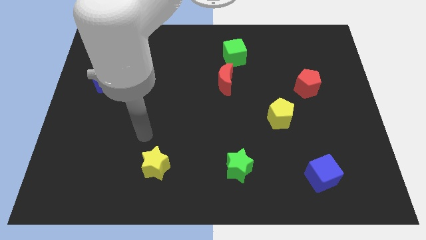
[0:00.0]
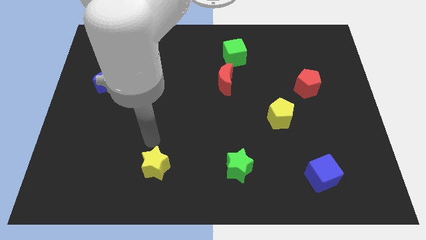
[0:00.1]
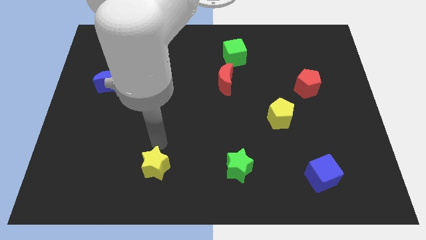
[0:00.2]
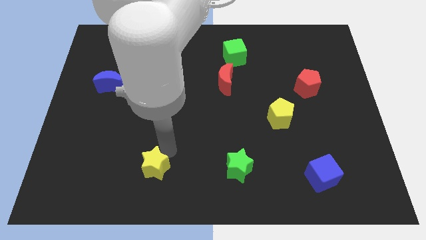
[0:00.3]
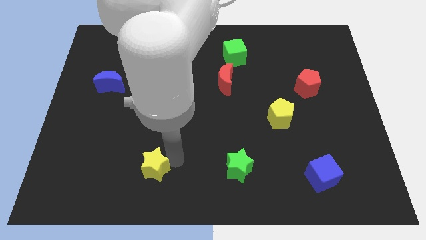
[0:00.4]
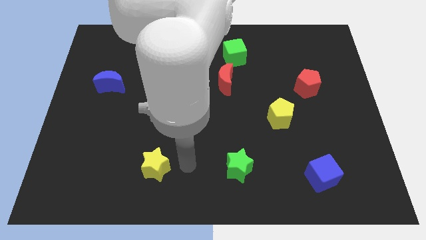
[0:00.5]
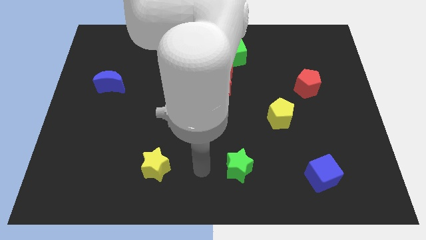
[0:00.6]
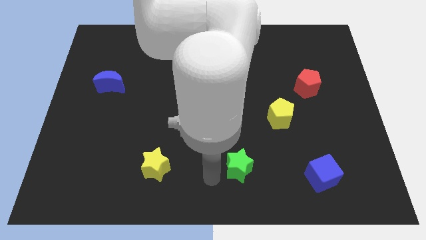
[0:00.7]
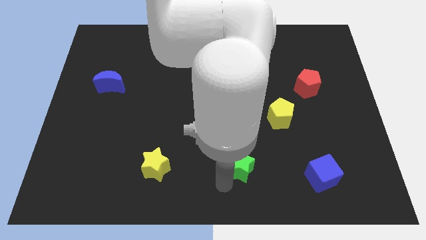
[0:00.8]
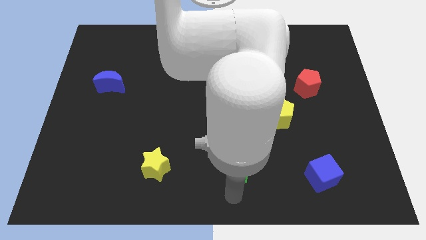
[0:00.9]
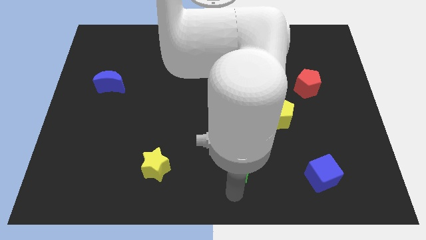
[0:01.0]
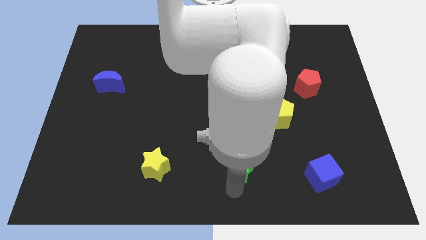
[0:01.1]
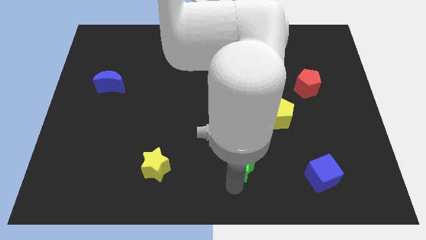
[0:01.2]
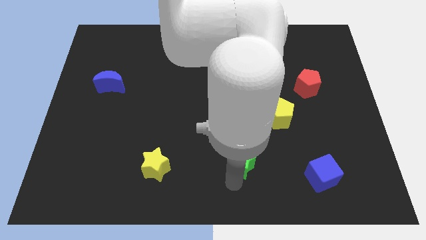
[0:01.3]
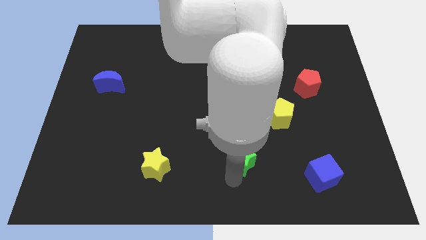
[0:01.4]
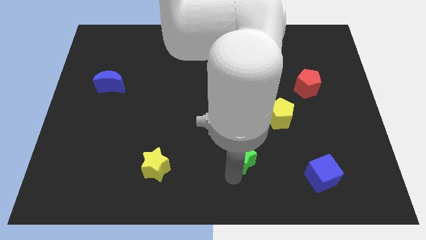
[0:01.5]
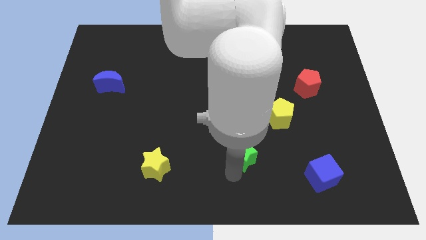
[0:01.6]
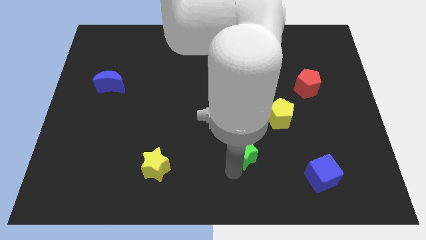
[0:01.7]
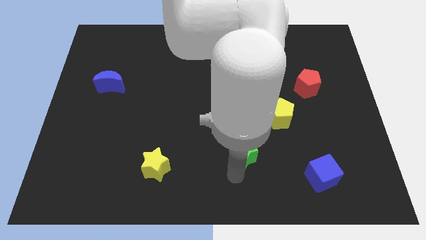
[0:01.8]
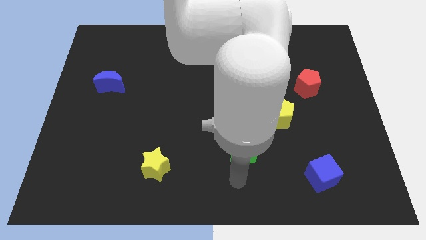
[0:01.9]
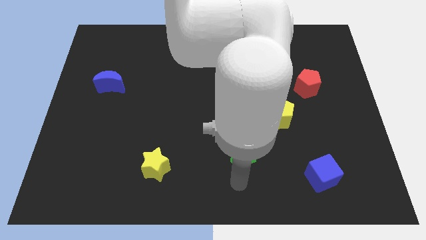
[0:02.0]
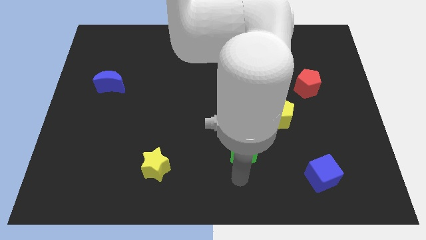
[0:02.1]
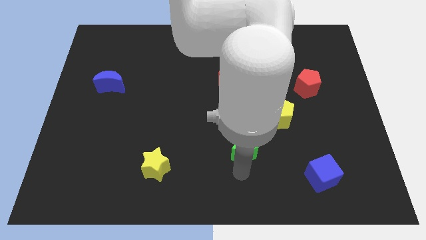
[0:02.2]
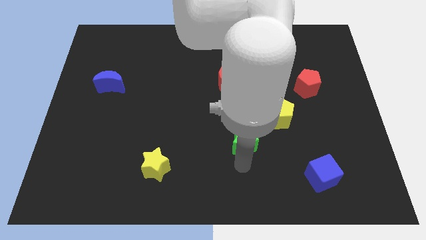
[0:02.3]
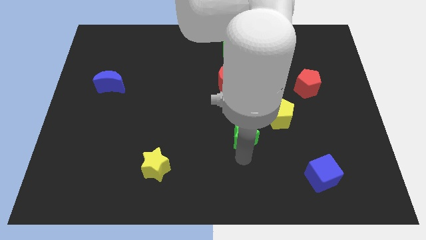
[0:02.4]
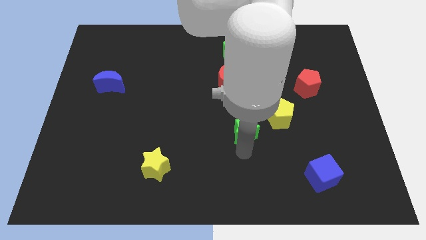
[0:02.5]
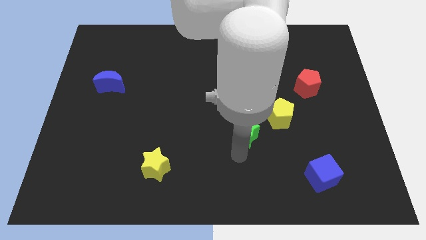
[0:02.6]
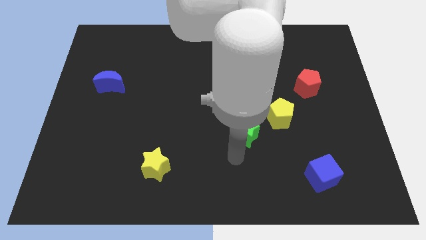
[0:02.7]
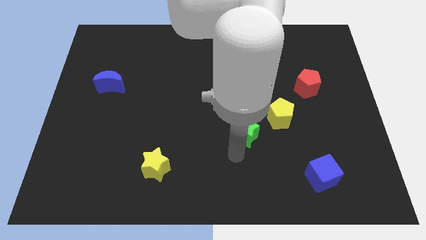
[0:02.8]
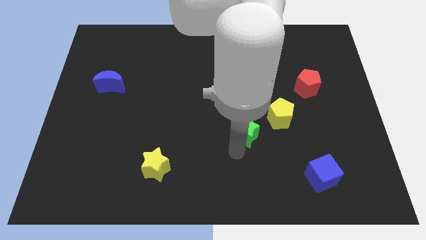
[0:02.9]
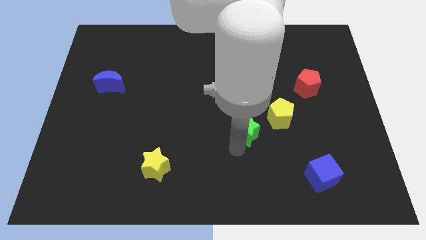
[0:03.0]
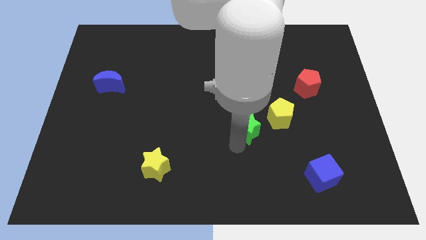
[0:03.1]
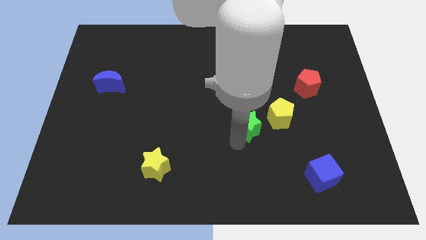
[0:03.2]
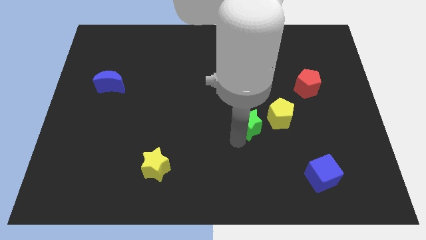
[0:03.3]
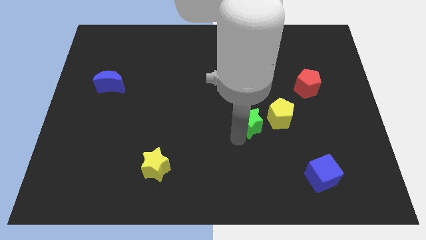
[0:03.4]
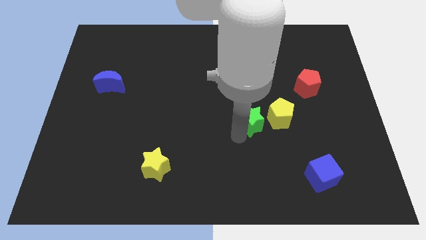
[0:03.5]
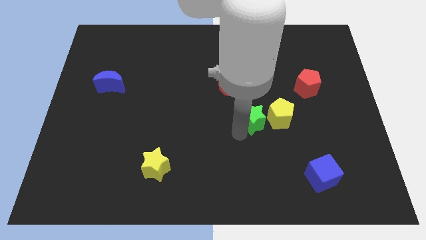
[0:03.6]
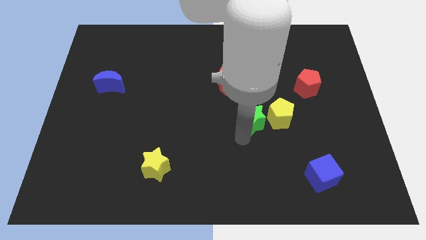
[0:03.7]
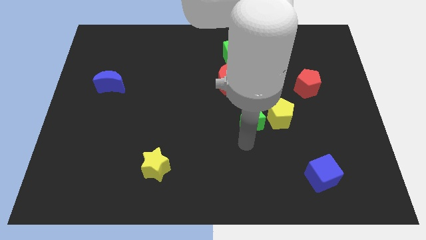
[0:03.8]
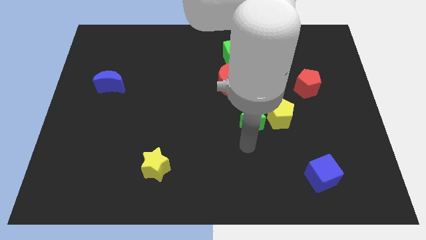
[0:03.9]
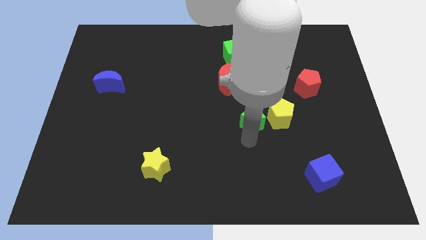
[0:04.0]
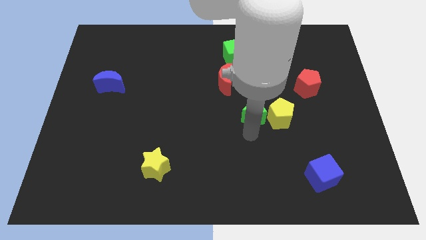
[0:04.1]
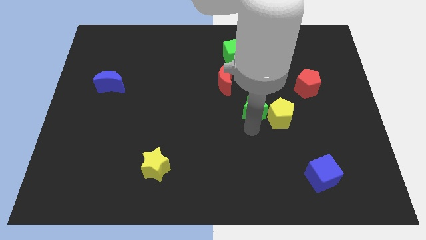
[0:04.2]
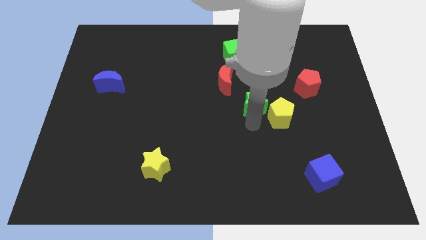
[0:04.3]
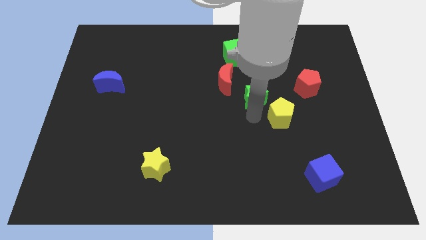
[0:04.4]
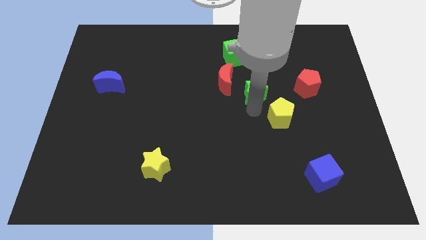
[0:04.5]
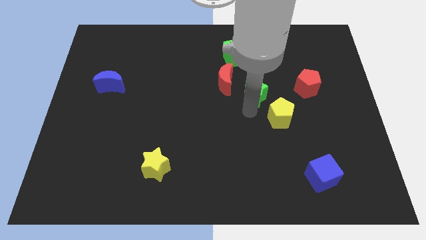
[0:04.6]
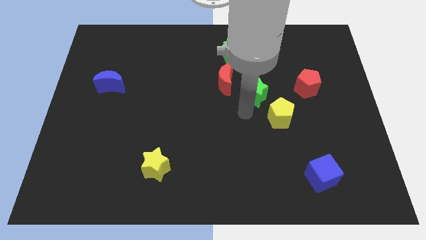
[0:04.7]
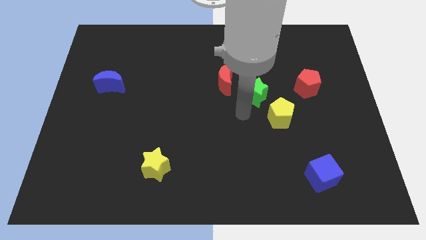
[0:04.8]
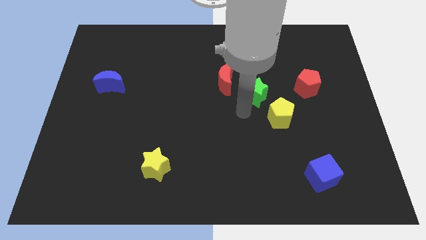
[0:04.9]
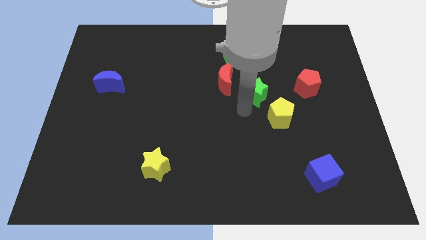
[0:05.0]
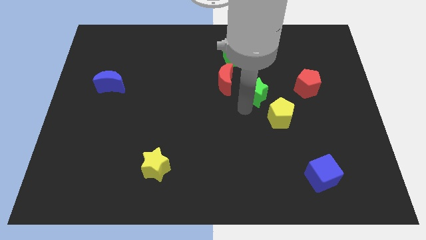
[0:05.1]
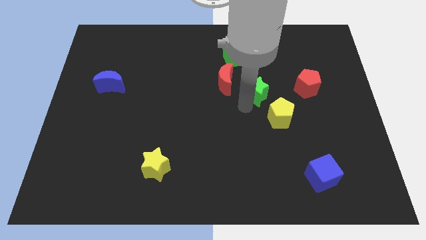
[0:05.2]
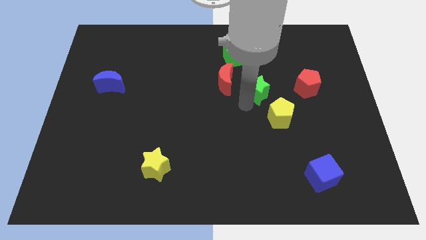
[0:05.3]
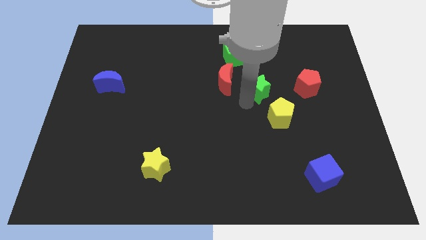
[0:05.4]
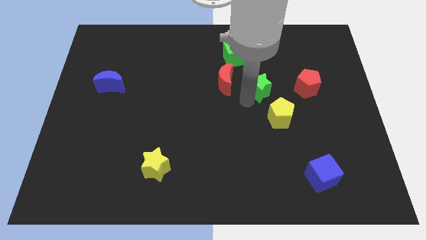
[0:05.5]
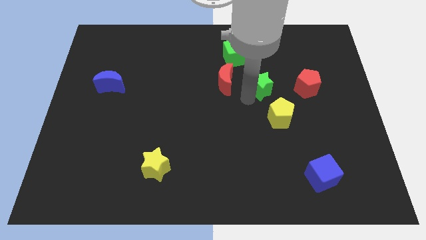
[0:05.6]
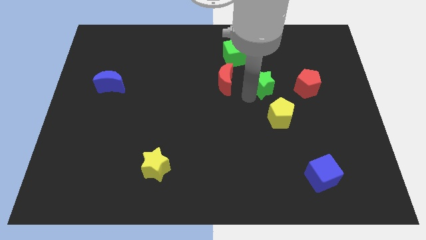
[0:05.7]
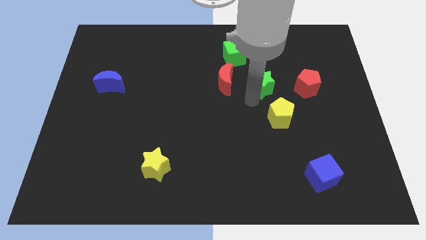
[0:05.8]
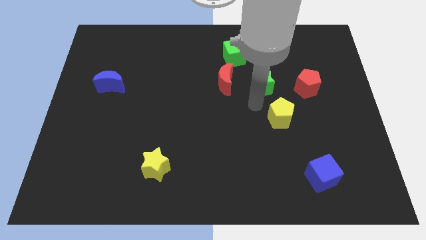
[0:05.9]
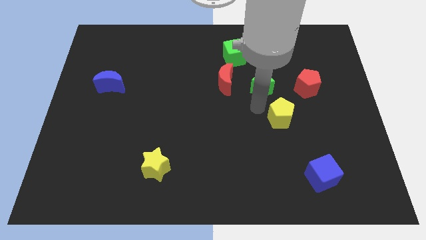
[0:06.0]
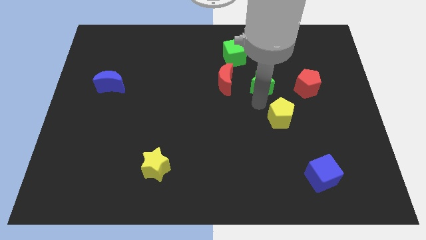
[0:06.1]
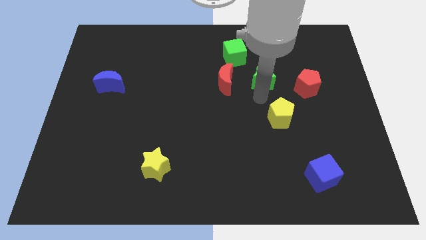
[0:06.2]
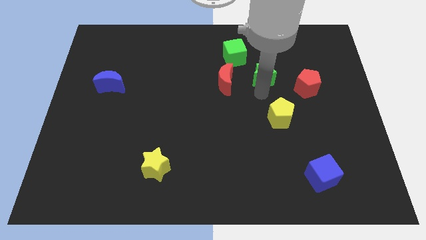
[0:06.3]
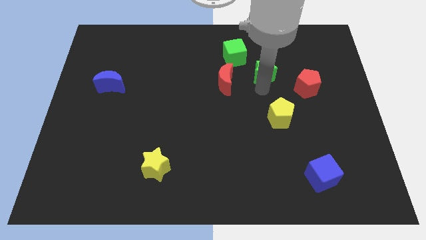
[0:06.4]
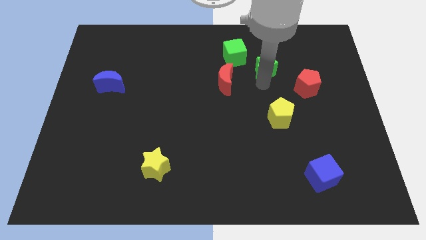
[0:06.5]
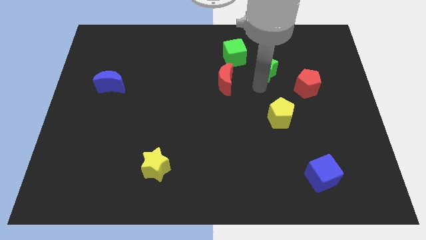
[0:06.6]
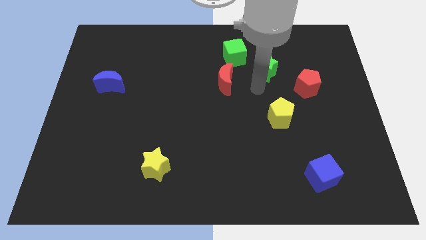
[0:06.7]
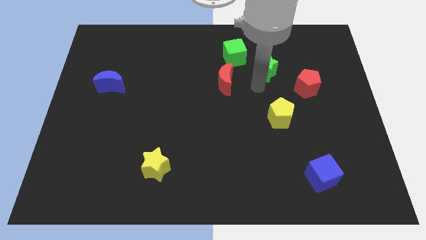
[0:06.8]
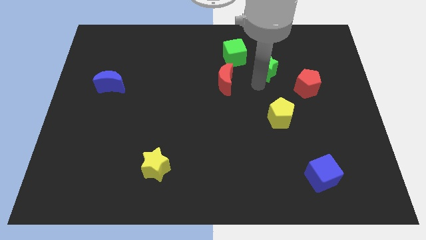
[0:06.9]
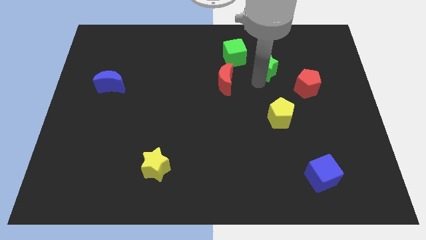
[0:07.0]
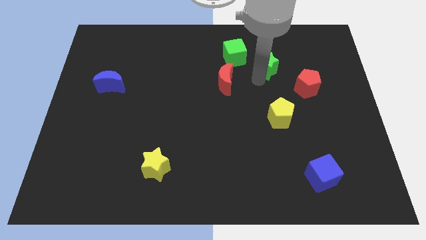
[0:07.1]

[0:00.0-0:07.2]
slide the green star to the right side of the green cube

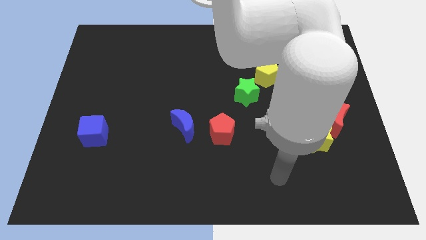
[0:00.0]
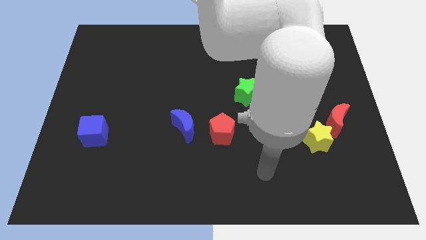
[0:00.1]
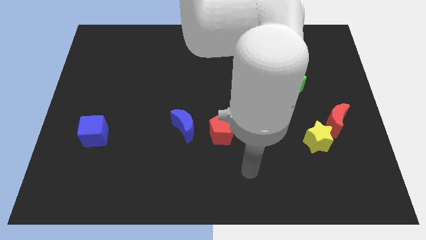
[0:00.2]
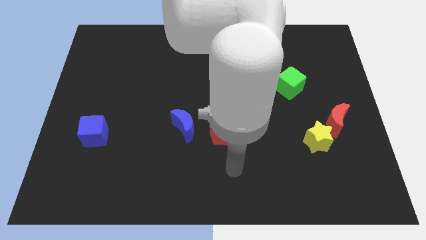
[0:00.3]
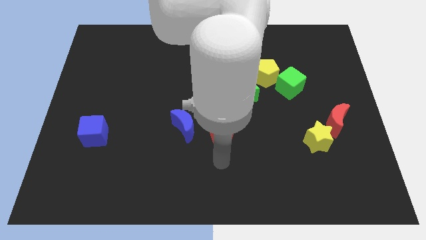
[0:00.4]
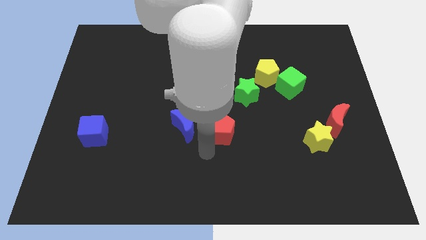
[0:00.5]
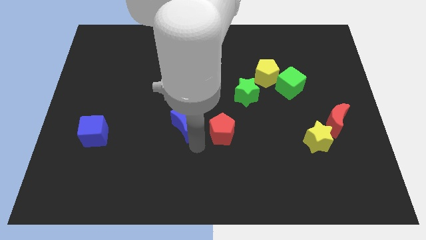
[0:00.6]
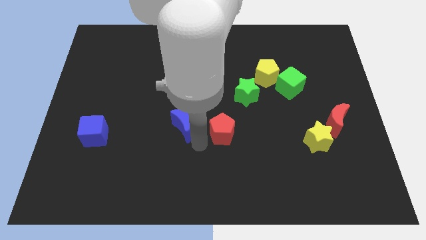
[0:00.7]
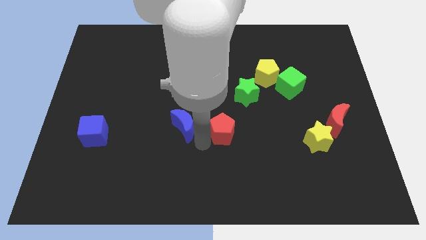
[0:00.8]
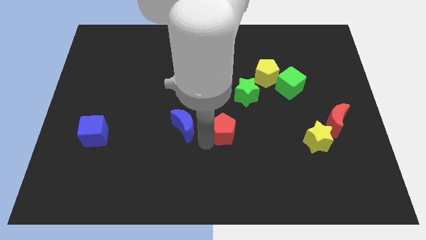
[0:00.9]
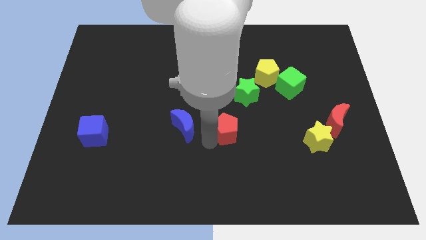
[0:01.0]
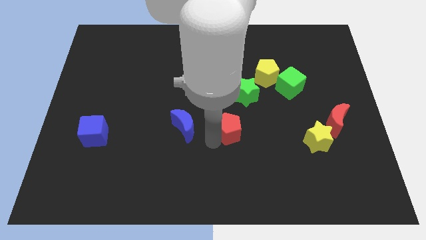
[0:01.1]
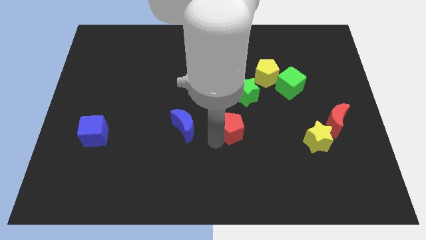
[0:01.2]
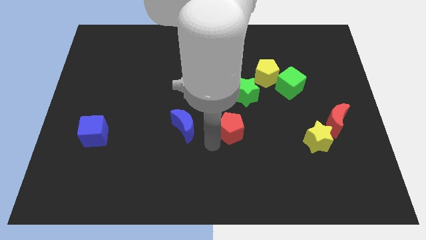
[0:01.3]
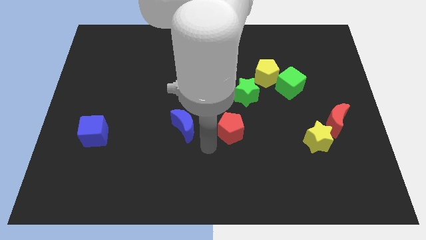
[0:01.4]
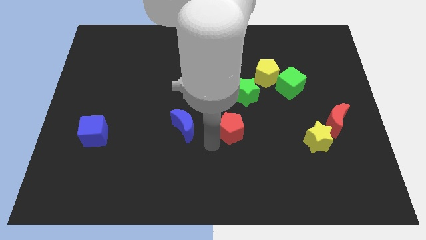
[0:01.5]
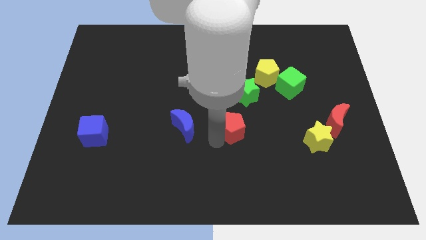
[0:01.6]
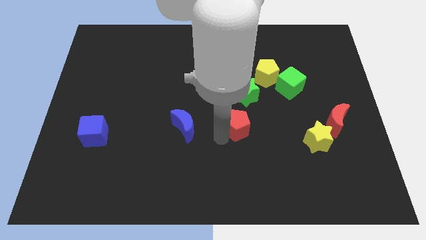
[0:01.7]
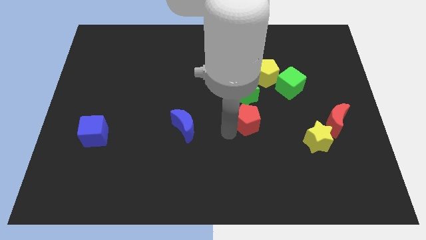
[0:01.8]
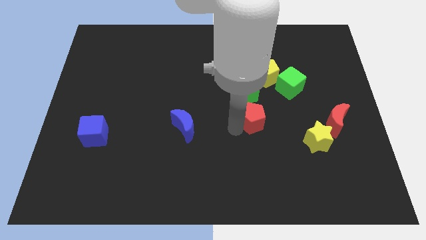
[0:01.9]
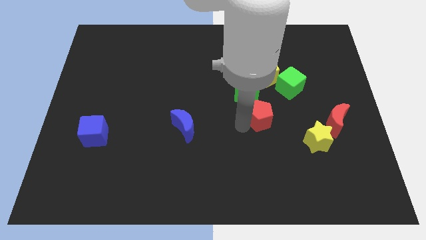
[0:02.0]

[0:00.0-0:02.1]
push the red pentagon to the bottom side of the yellow pentagon
